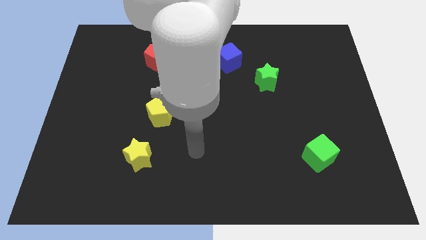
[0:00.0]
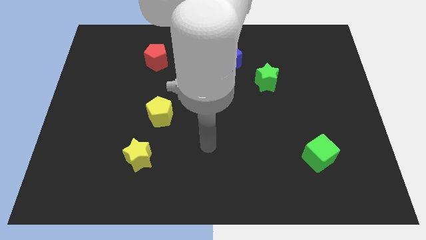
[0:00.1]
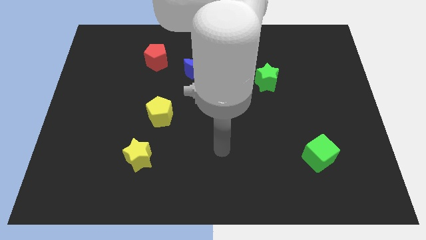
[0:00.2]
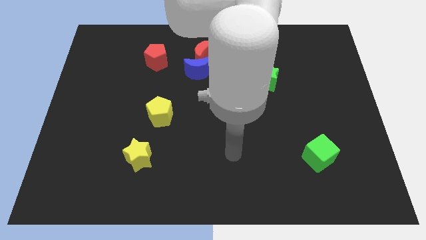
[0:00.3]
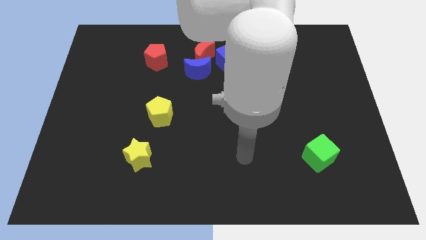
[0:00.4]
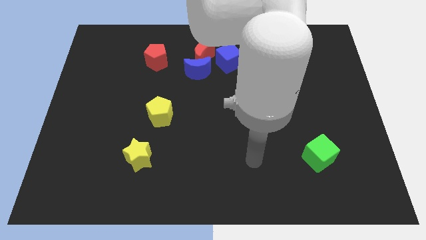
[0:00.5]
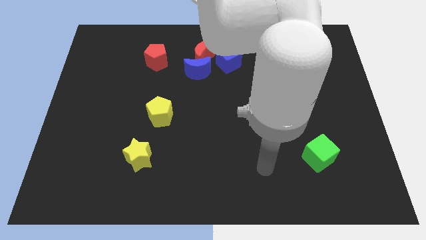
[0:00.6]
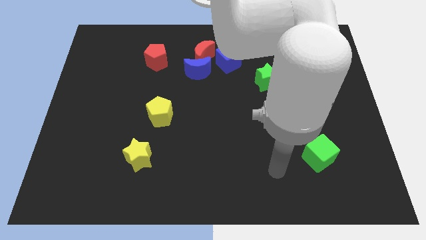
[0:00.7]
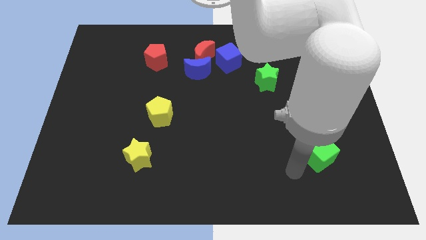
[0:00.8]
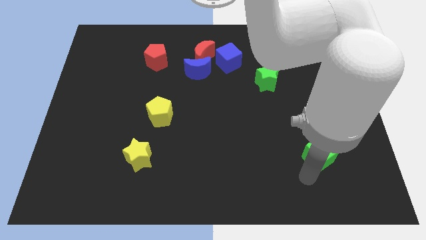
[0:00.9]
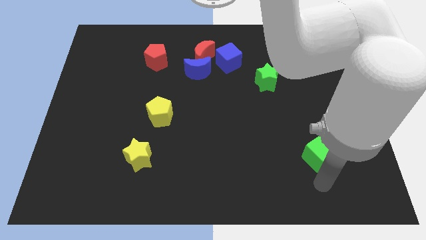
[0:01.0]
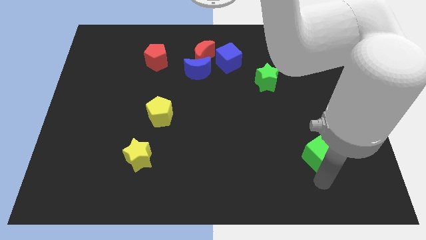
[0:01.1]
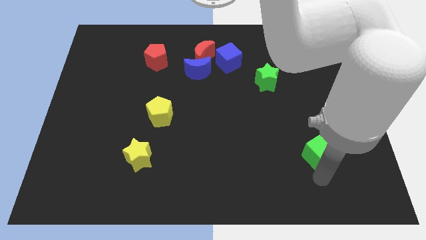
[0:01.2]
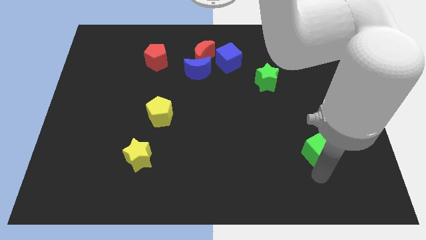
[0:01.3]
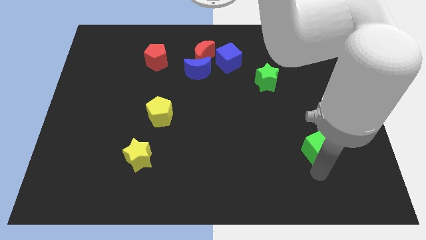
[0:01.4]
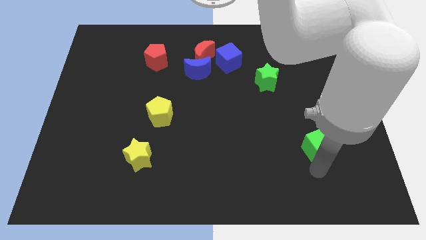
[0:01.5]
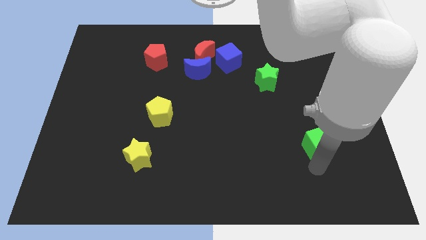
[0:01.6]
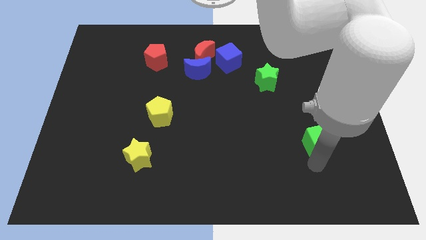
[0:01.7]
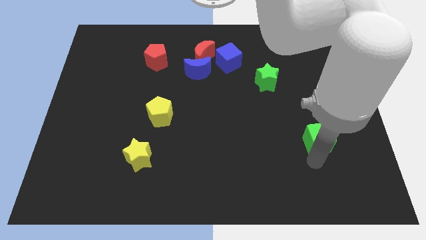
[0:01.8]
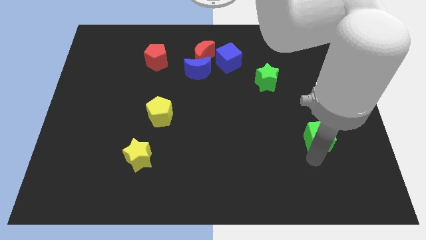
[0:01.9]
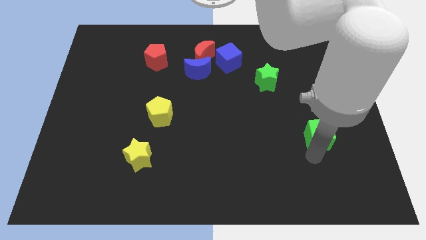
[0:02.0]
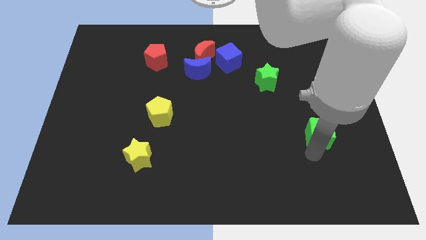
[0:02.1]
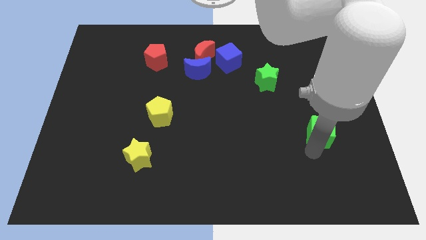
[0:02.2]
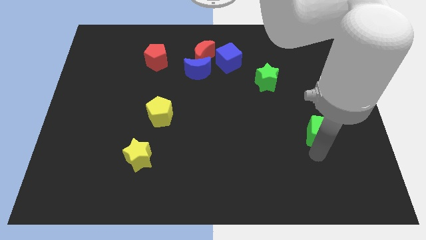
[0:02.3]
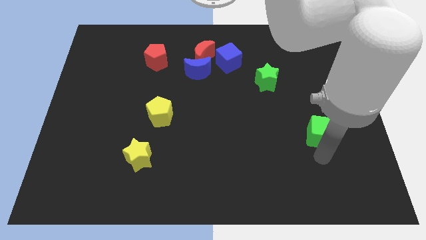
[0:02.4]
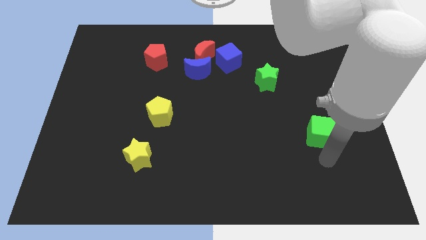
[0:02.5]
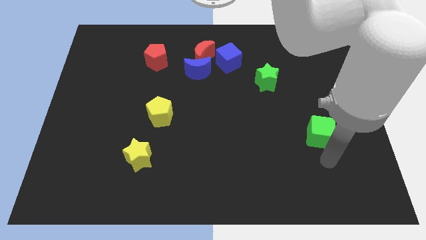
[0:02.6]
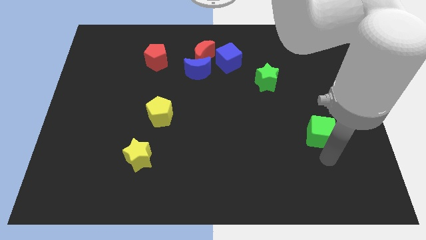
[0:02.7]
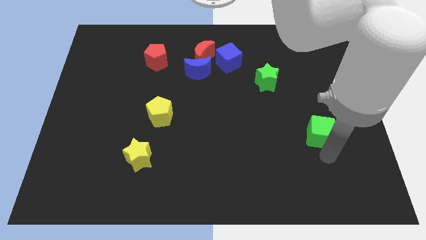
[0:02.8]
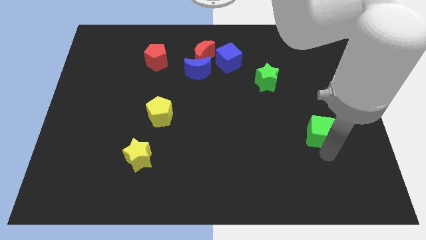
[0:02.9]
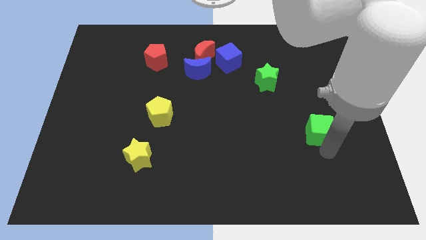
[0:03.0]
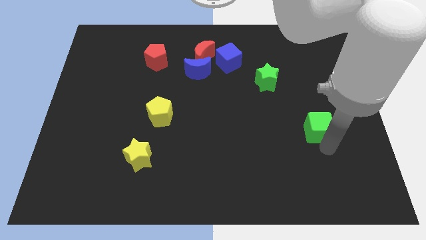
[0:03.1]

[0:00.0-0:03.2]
slightly push the green cube upwards

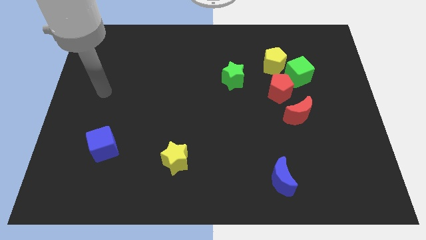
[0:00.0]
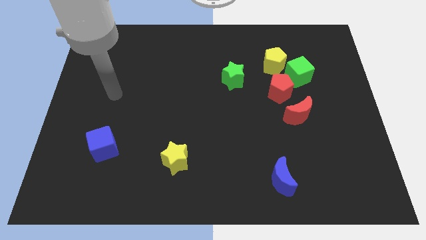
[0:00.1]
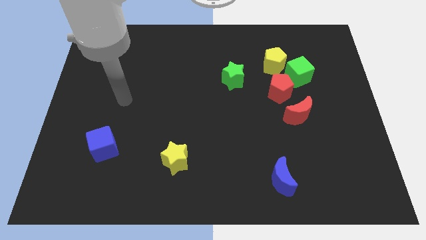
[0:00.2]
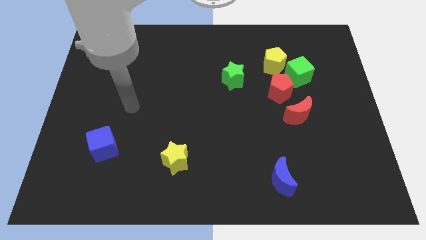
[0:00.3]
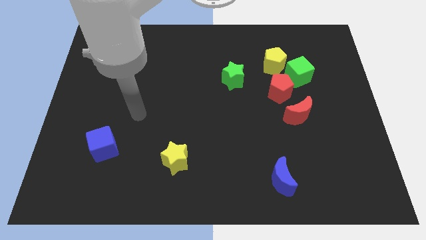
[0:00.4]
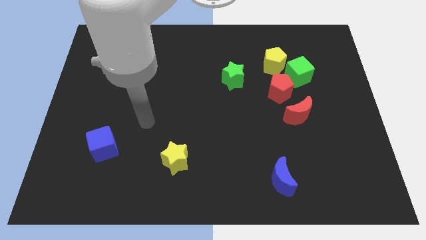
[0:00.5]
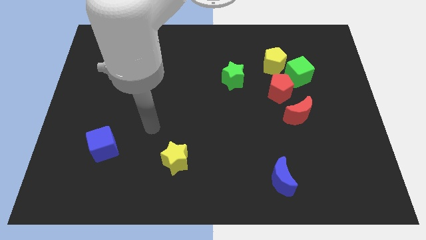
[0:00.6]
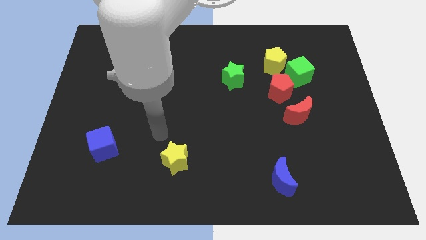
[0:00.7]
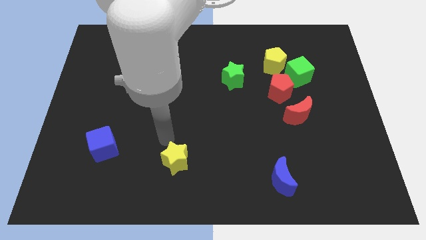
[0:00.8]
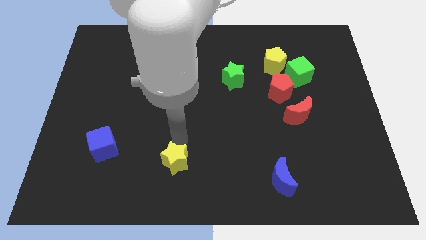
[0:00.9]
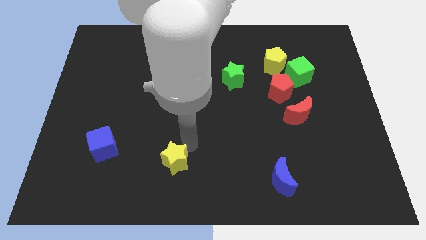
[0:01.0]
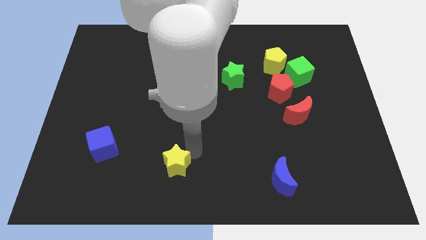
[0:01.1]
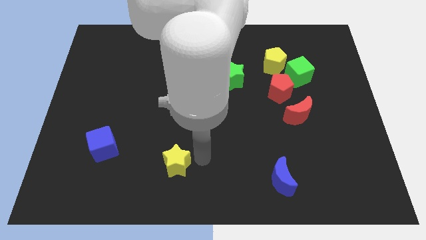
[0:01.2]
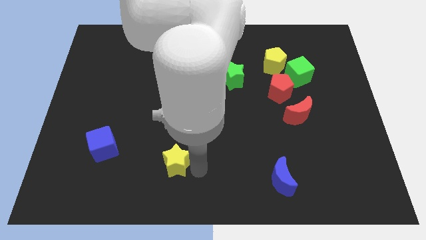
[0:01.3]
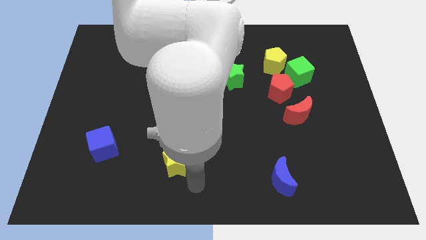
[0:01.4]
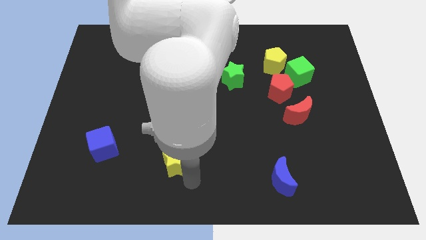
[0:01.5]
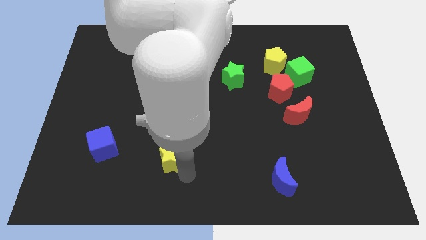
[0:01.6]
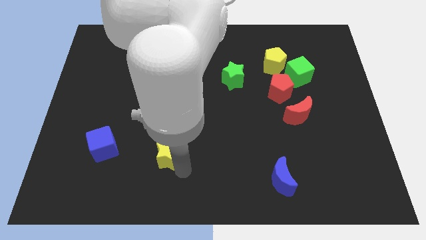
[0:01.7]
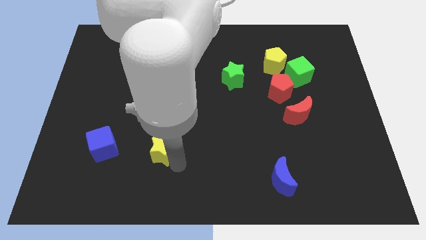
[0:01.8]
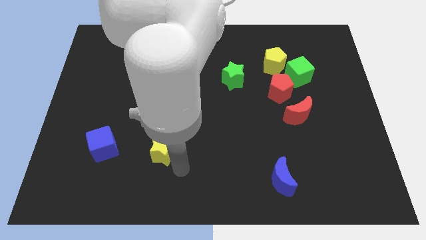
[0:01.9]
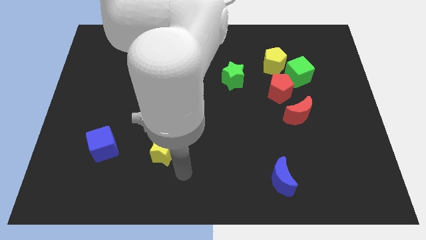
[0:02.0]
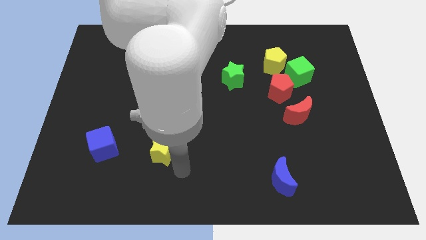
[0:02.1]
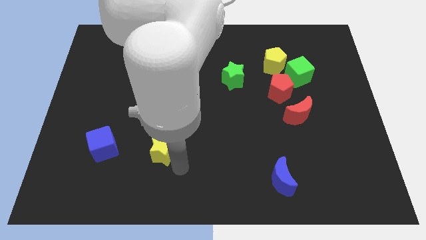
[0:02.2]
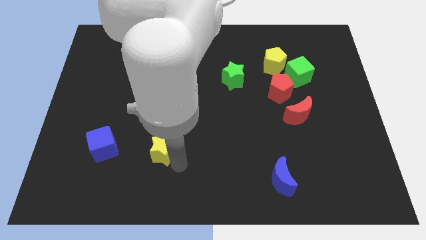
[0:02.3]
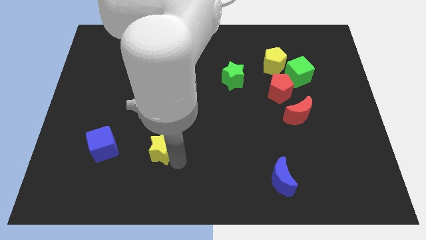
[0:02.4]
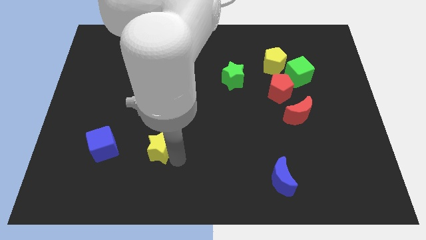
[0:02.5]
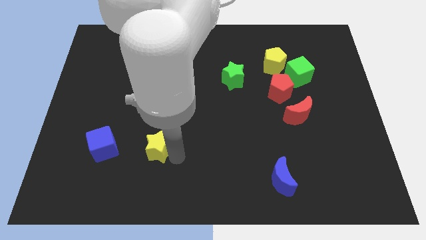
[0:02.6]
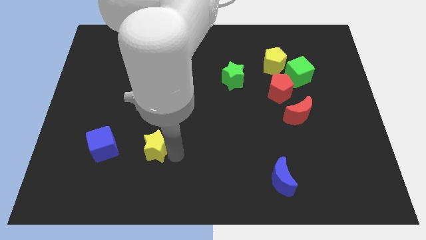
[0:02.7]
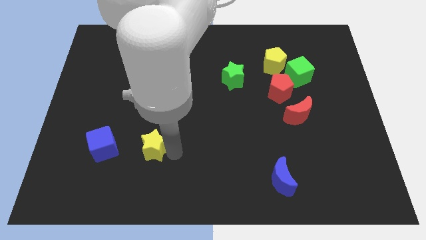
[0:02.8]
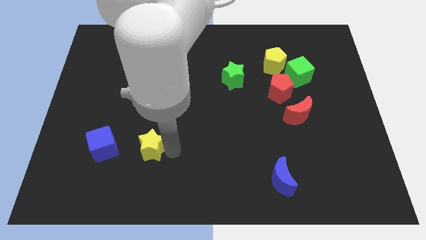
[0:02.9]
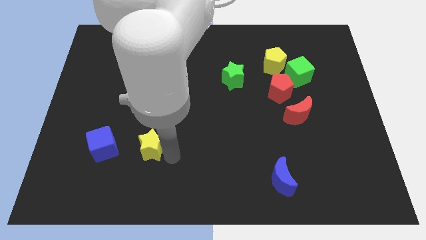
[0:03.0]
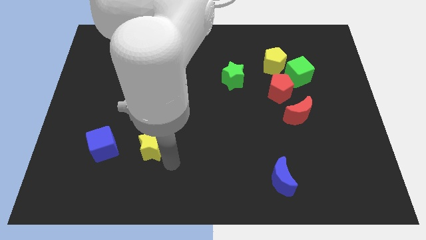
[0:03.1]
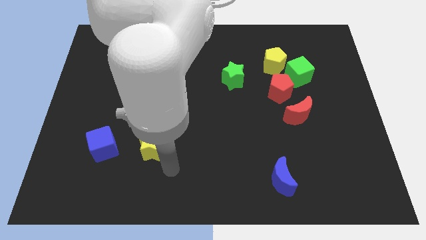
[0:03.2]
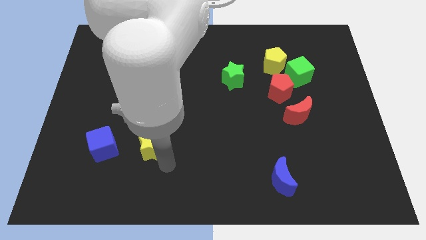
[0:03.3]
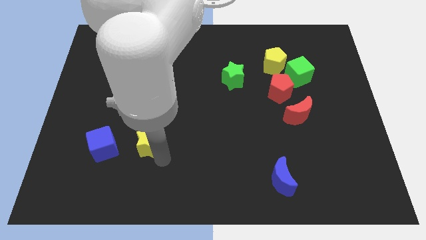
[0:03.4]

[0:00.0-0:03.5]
push the yellow star upwards and left diagonally a little

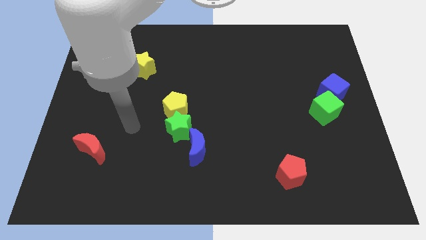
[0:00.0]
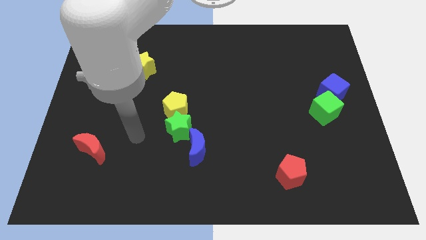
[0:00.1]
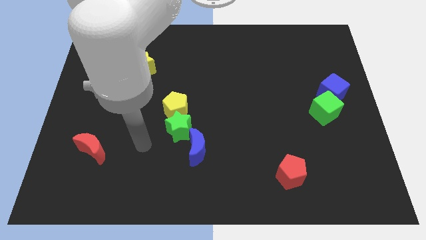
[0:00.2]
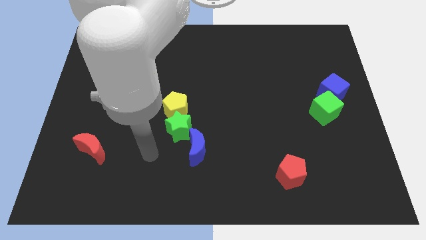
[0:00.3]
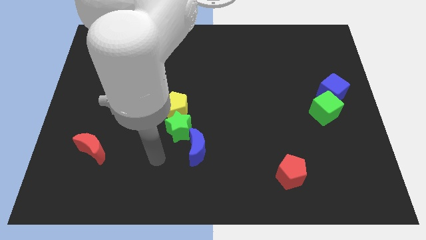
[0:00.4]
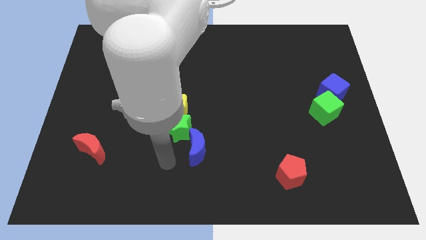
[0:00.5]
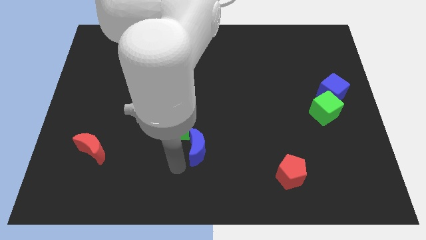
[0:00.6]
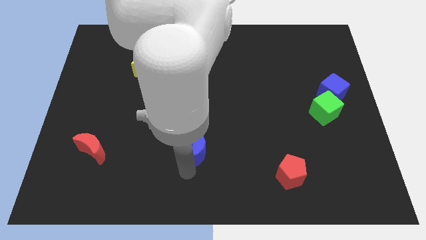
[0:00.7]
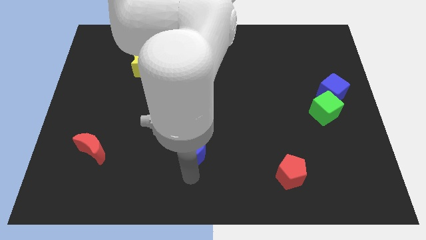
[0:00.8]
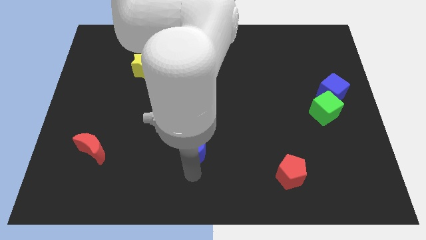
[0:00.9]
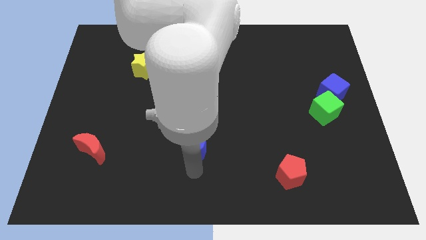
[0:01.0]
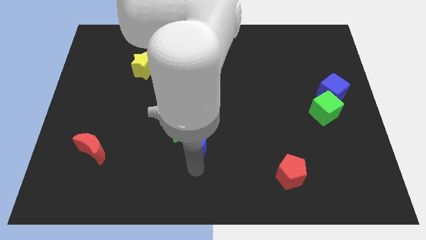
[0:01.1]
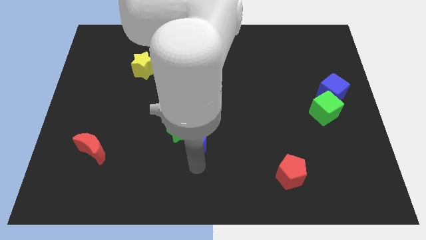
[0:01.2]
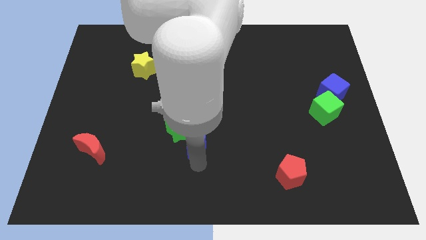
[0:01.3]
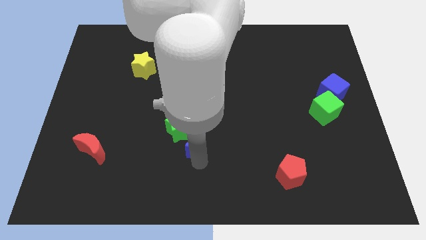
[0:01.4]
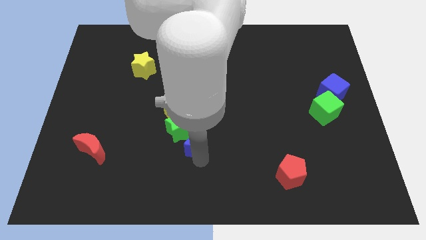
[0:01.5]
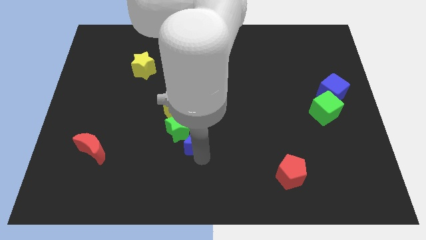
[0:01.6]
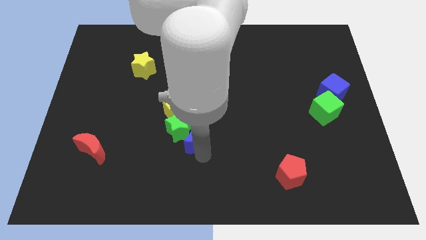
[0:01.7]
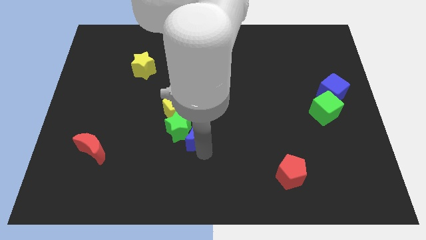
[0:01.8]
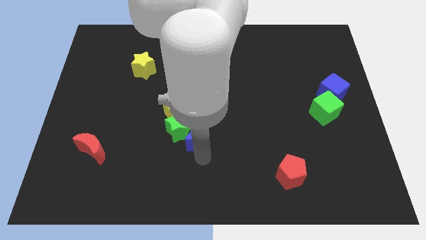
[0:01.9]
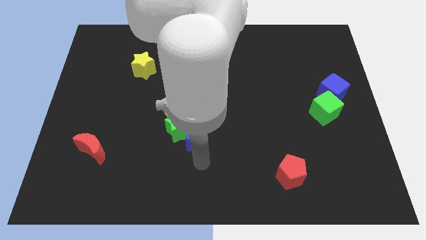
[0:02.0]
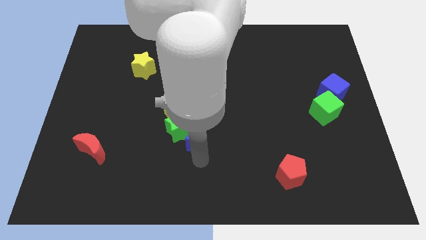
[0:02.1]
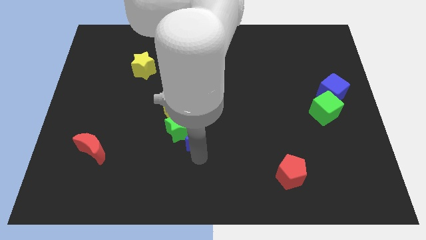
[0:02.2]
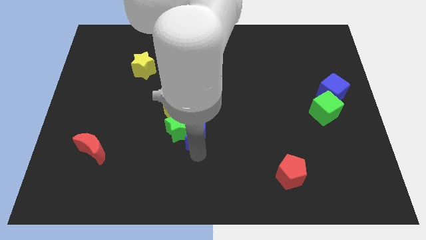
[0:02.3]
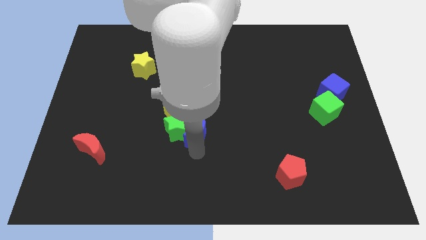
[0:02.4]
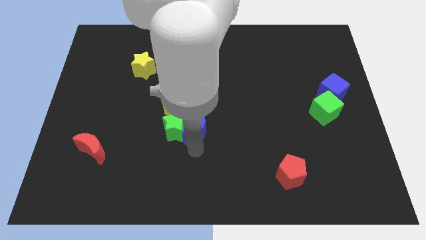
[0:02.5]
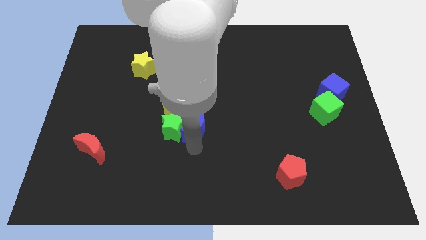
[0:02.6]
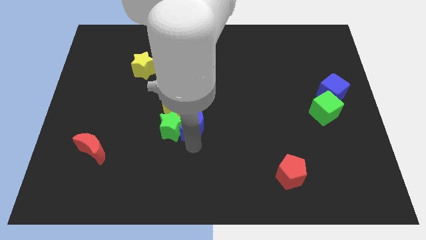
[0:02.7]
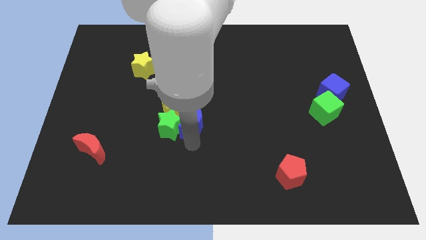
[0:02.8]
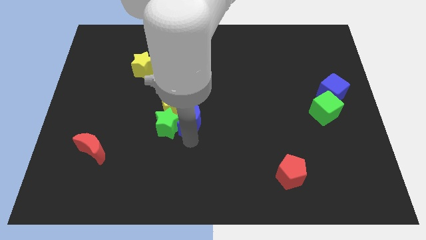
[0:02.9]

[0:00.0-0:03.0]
slightly slide the blue moon upwards
